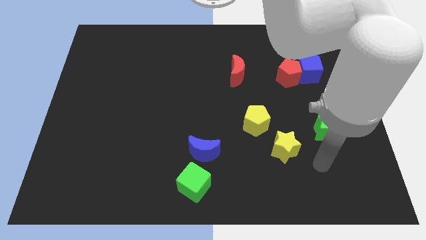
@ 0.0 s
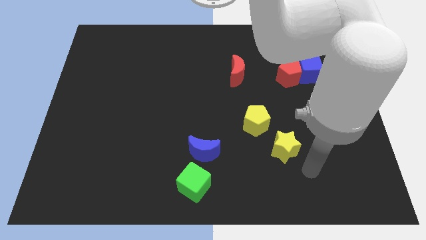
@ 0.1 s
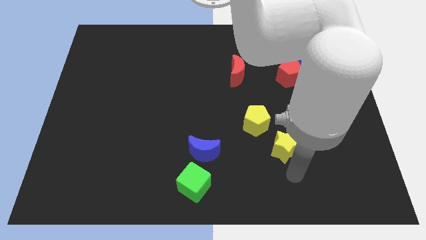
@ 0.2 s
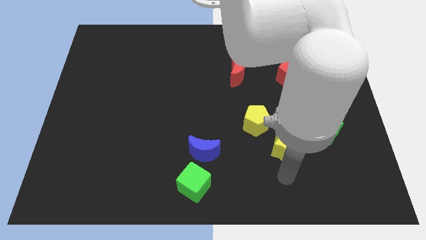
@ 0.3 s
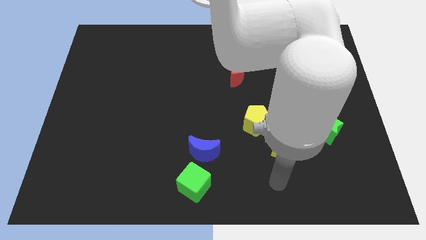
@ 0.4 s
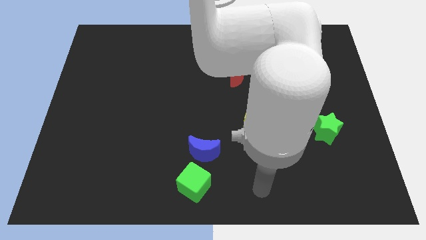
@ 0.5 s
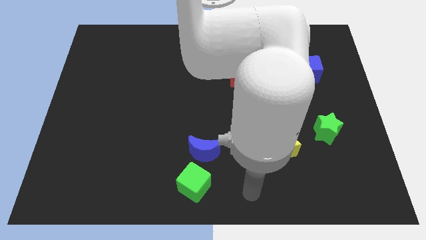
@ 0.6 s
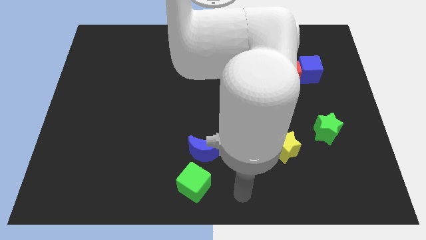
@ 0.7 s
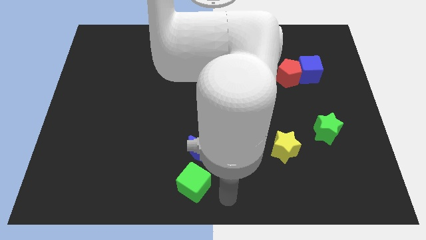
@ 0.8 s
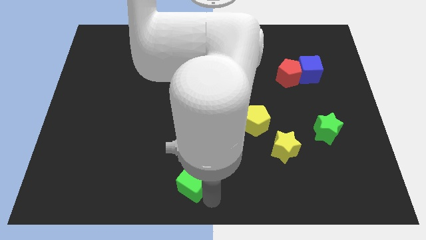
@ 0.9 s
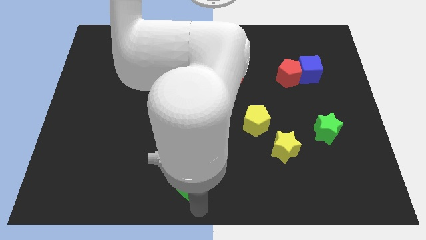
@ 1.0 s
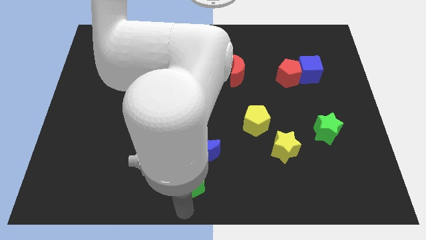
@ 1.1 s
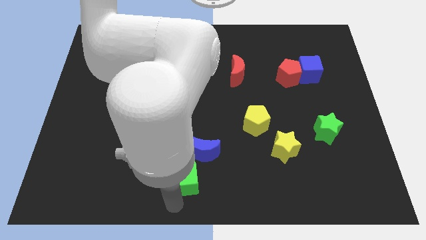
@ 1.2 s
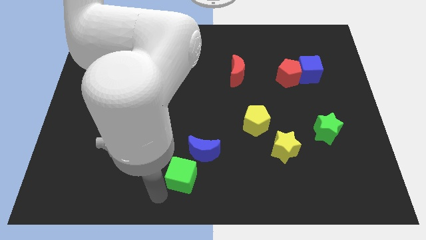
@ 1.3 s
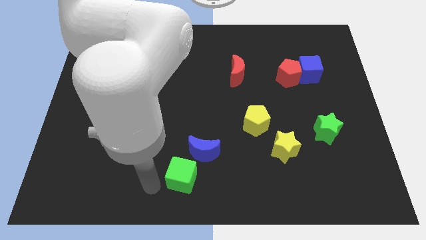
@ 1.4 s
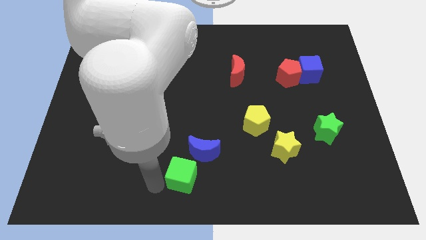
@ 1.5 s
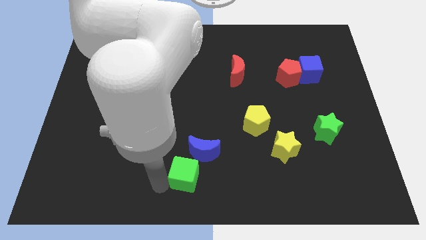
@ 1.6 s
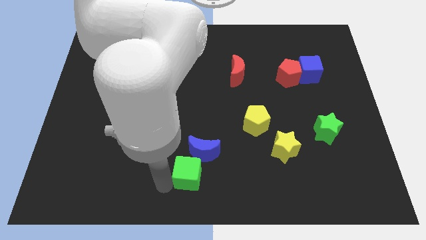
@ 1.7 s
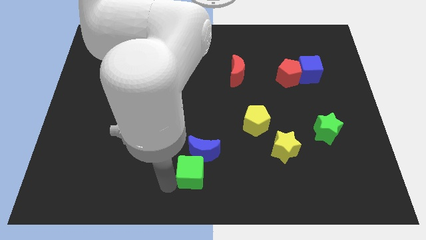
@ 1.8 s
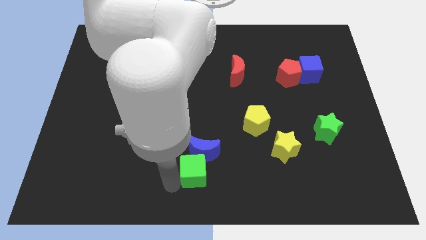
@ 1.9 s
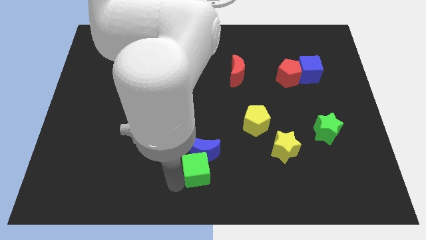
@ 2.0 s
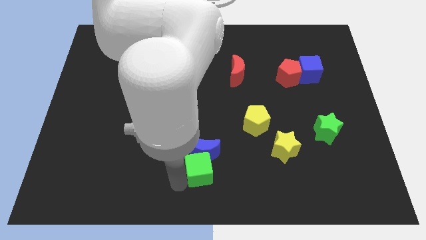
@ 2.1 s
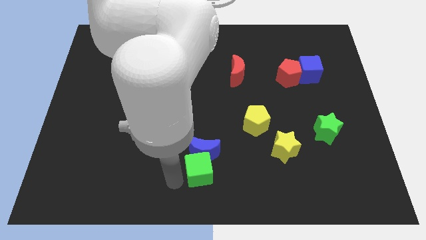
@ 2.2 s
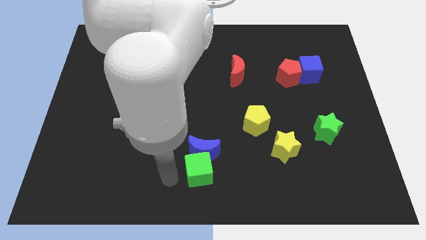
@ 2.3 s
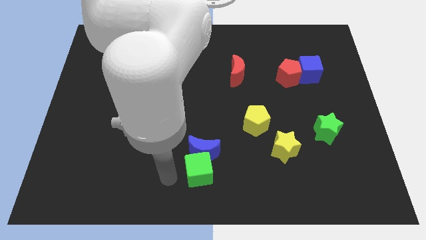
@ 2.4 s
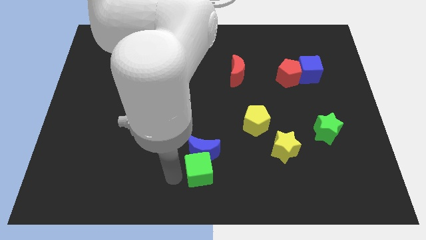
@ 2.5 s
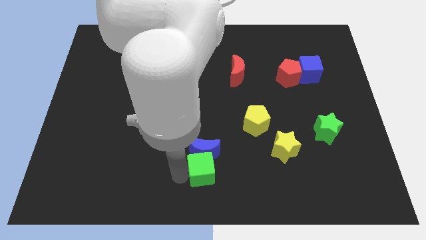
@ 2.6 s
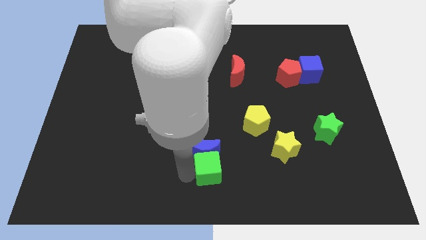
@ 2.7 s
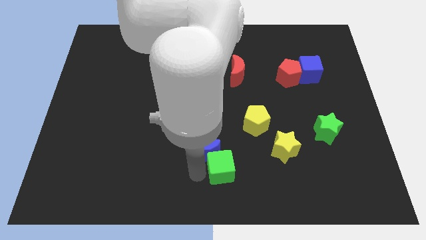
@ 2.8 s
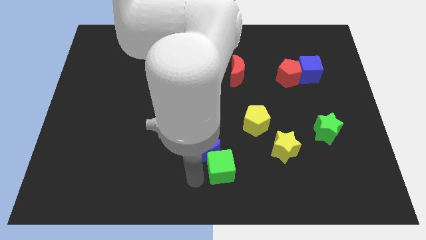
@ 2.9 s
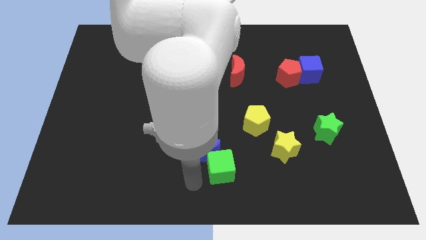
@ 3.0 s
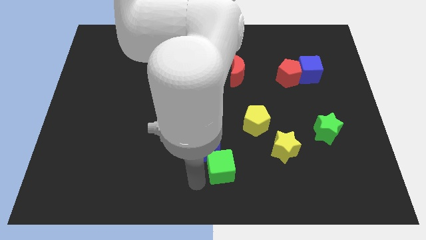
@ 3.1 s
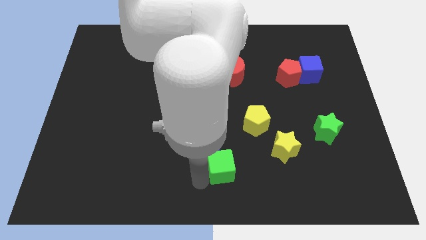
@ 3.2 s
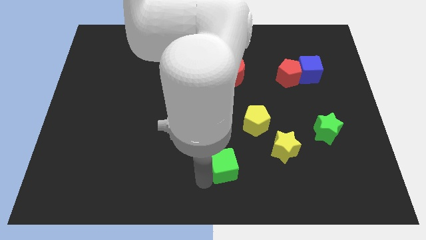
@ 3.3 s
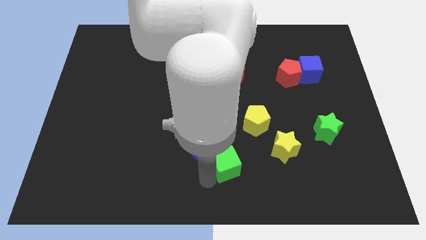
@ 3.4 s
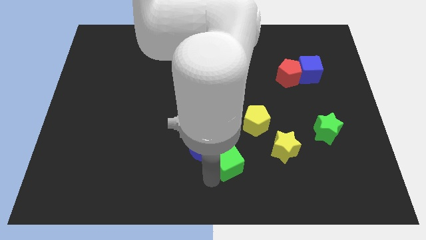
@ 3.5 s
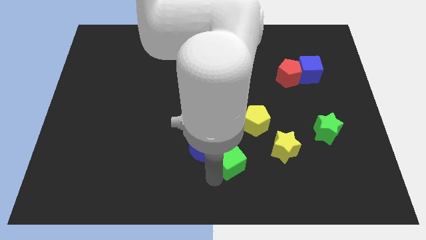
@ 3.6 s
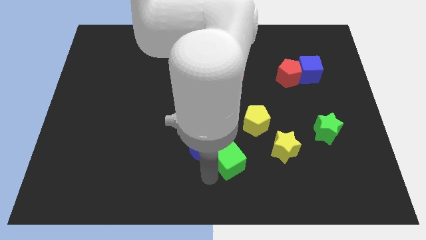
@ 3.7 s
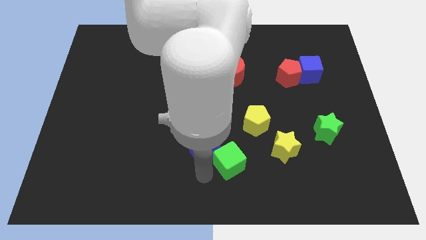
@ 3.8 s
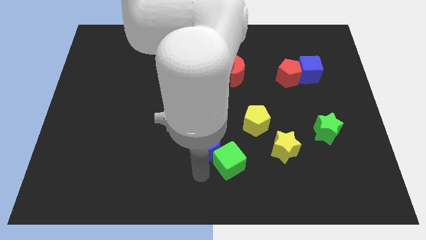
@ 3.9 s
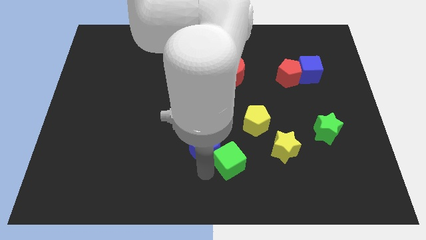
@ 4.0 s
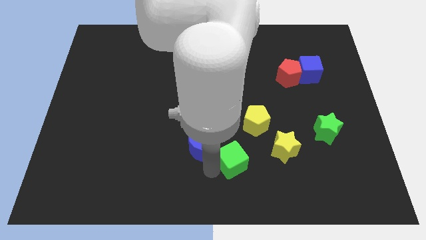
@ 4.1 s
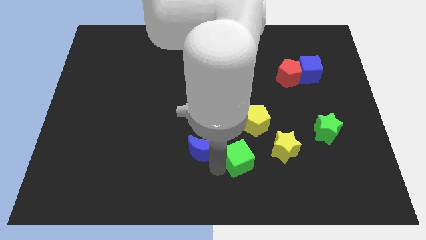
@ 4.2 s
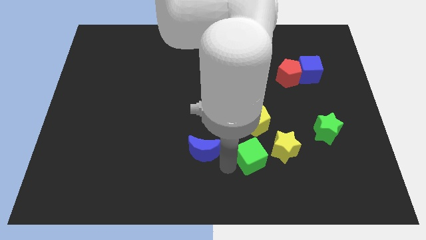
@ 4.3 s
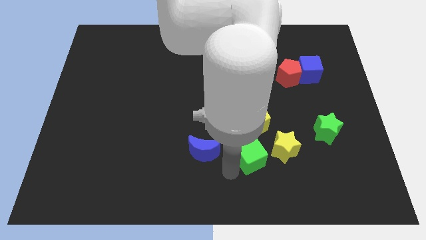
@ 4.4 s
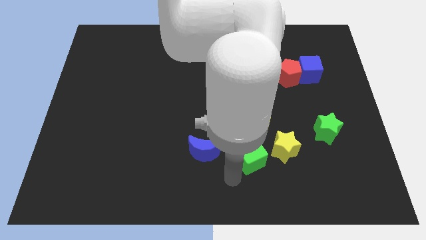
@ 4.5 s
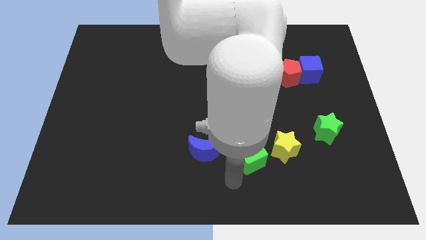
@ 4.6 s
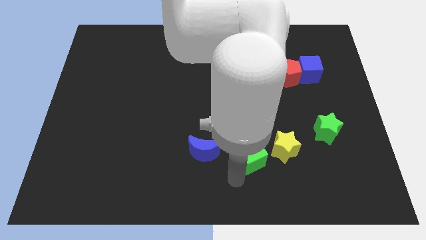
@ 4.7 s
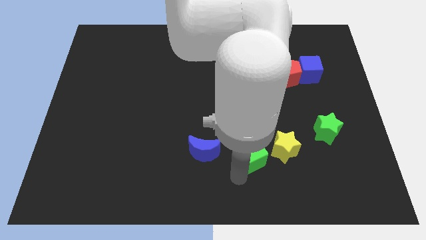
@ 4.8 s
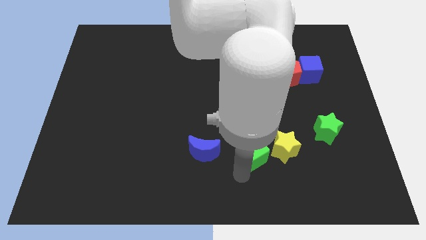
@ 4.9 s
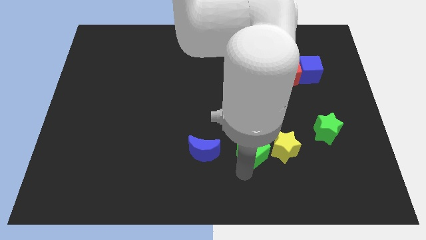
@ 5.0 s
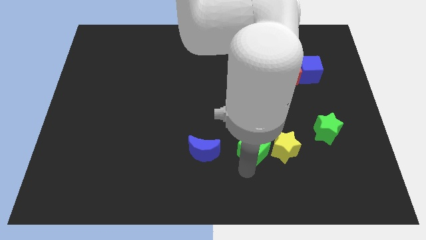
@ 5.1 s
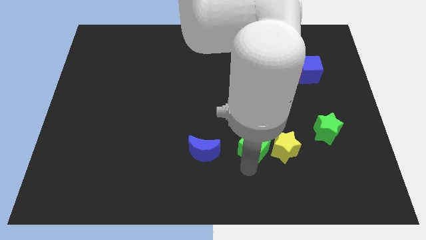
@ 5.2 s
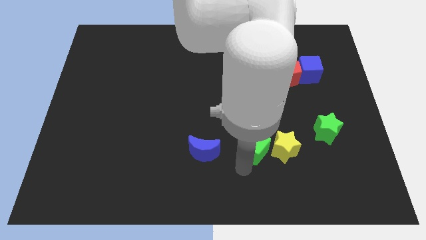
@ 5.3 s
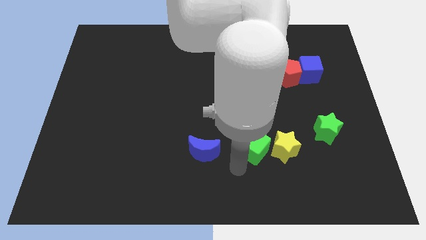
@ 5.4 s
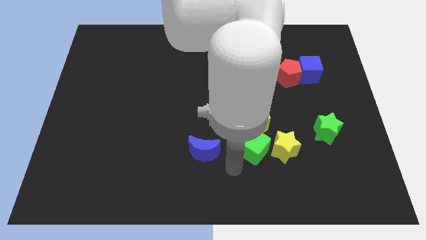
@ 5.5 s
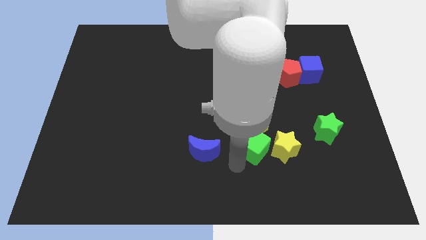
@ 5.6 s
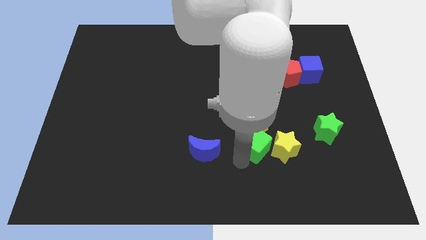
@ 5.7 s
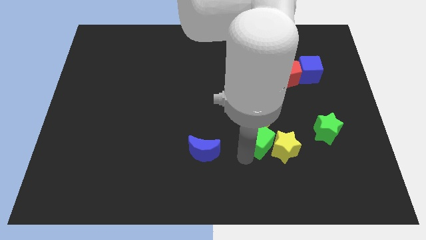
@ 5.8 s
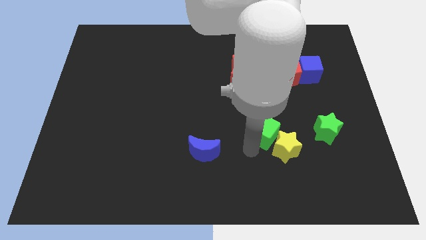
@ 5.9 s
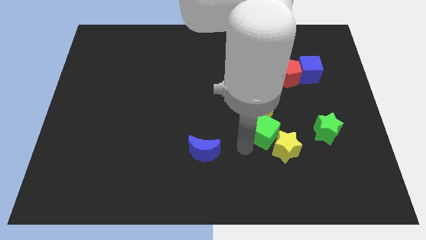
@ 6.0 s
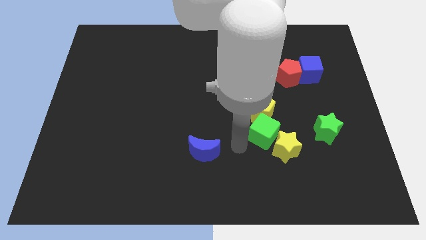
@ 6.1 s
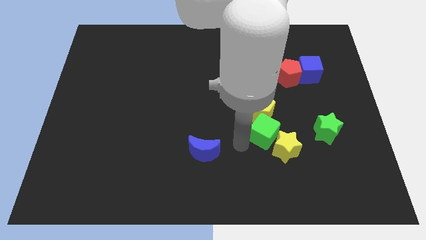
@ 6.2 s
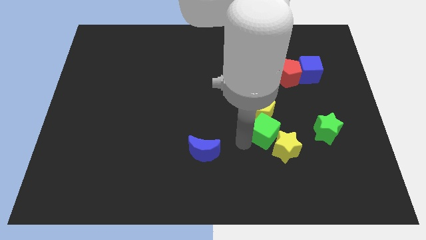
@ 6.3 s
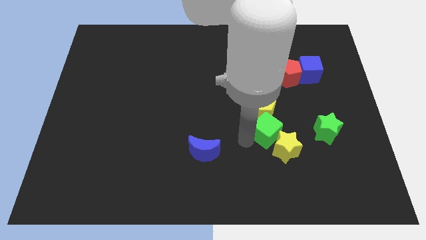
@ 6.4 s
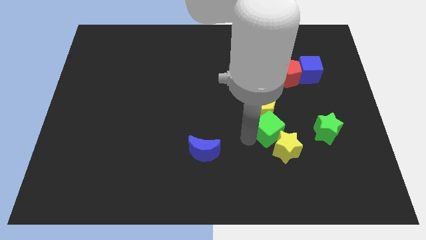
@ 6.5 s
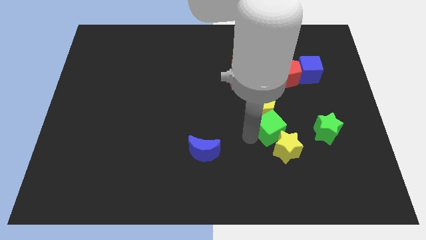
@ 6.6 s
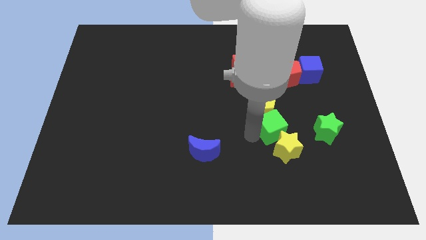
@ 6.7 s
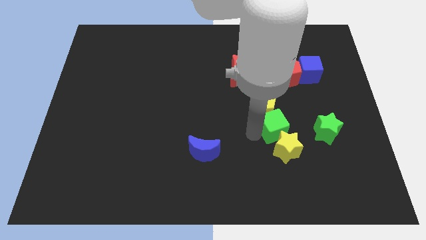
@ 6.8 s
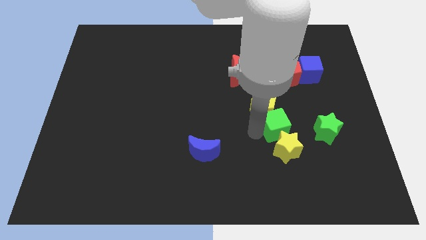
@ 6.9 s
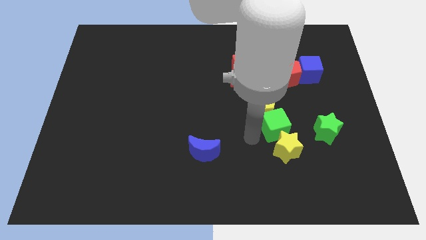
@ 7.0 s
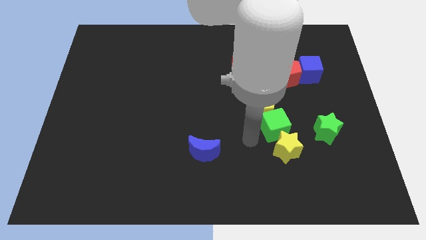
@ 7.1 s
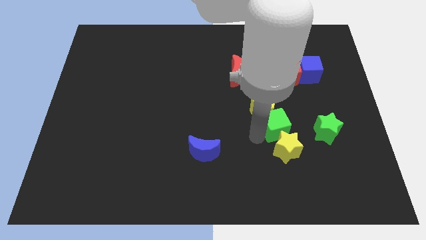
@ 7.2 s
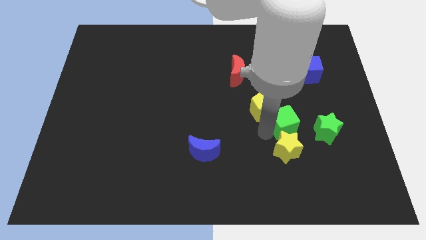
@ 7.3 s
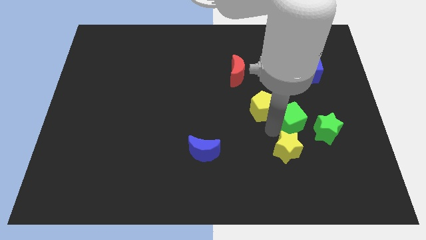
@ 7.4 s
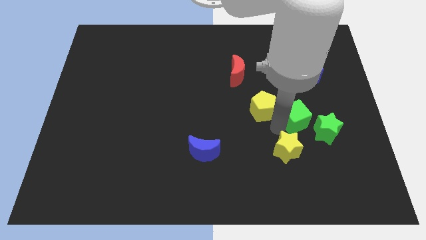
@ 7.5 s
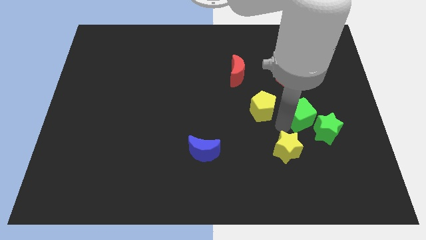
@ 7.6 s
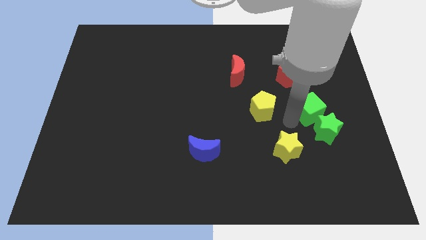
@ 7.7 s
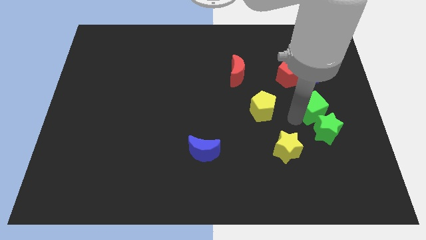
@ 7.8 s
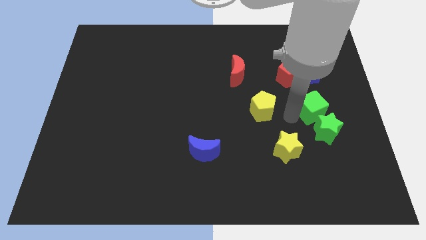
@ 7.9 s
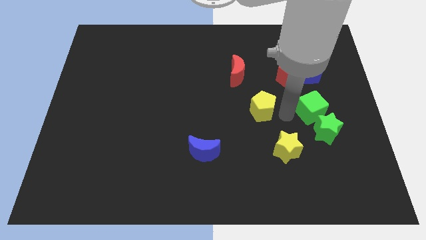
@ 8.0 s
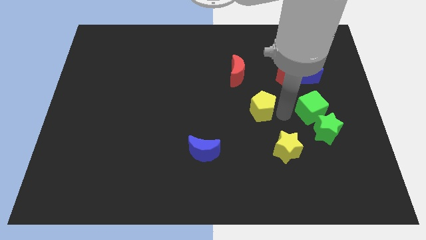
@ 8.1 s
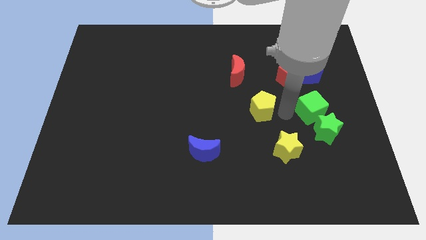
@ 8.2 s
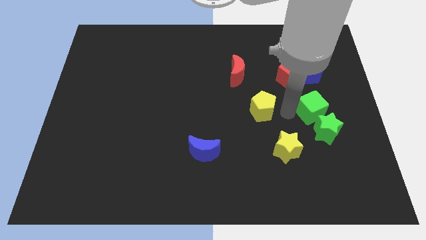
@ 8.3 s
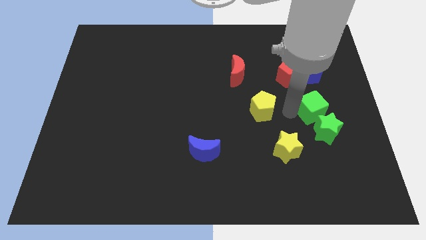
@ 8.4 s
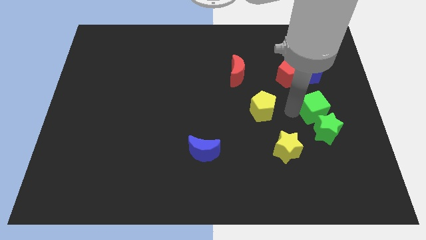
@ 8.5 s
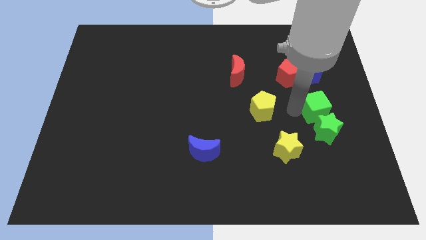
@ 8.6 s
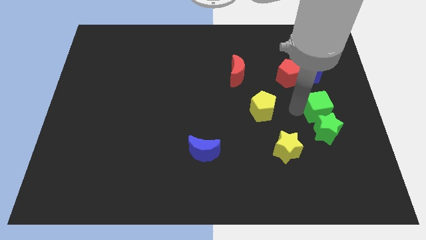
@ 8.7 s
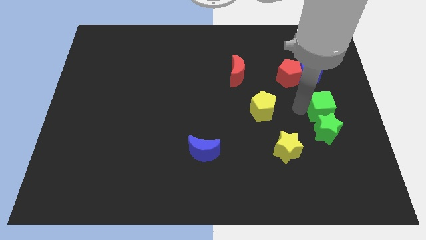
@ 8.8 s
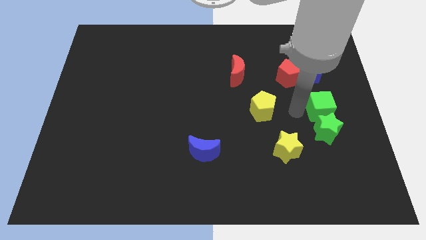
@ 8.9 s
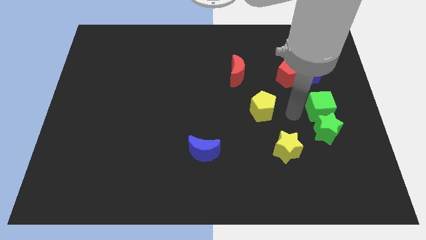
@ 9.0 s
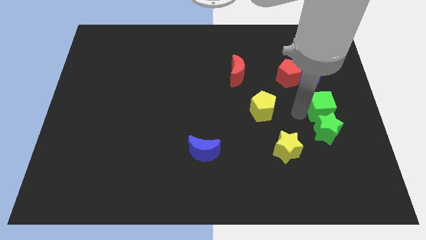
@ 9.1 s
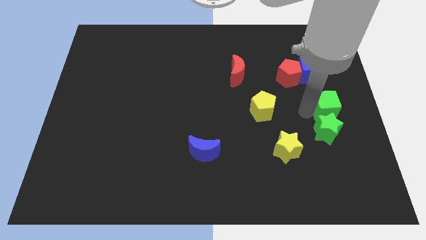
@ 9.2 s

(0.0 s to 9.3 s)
push the green cube to the right side
